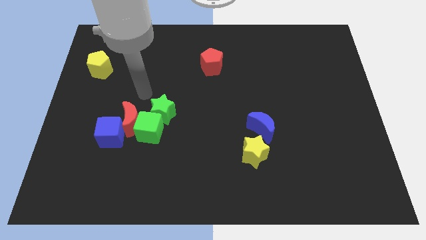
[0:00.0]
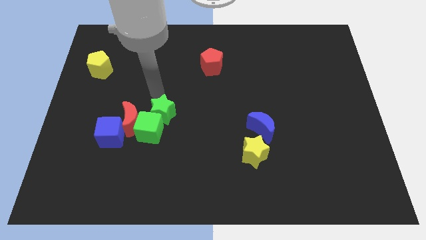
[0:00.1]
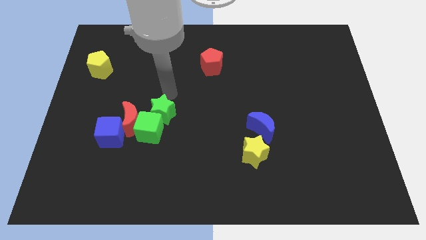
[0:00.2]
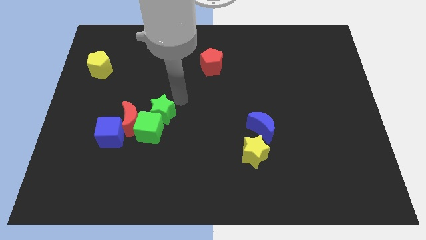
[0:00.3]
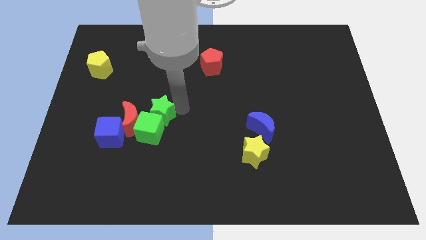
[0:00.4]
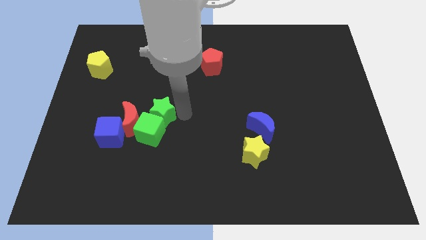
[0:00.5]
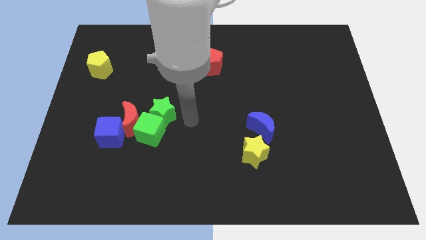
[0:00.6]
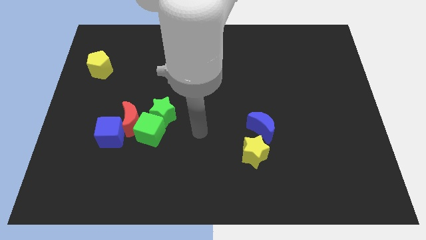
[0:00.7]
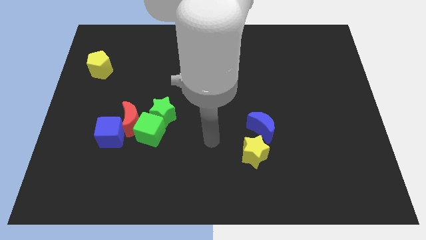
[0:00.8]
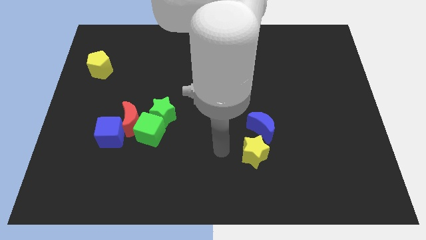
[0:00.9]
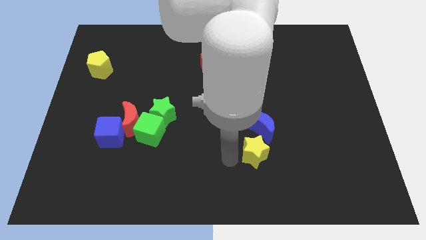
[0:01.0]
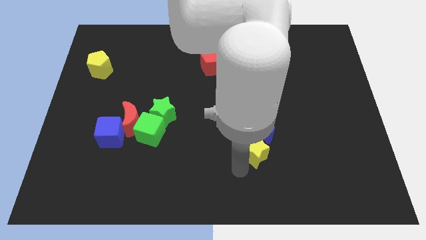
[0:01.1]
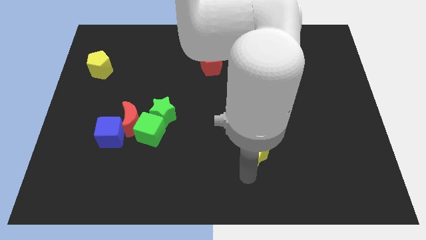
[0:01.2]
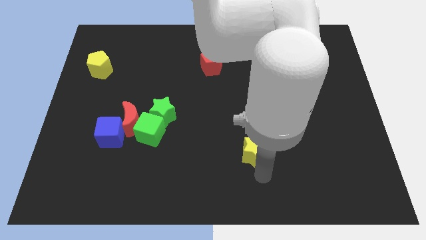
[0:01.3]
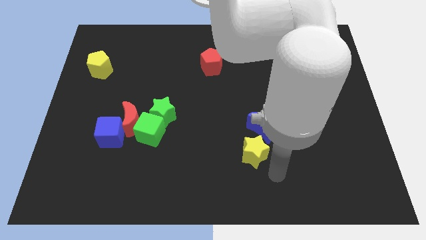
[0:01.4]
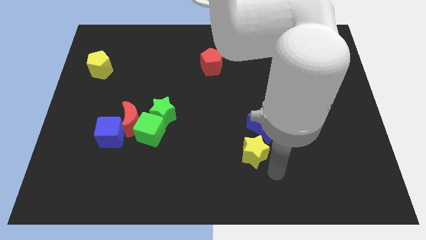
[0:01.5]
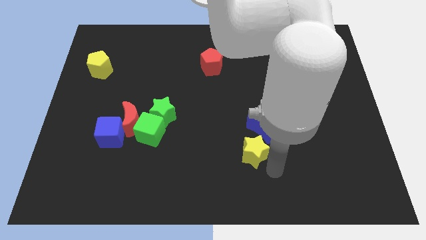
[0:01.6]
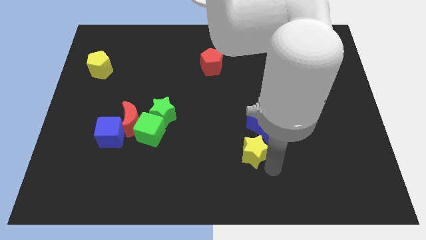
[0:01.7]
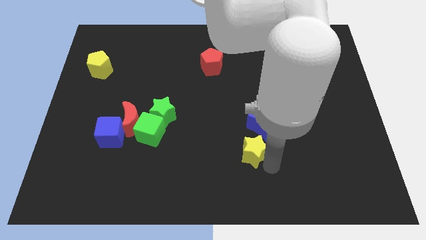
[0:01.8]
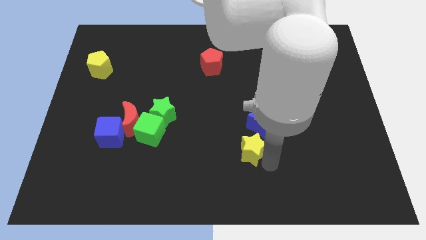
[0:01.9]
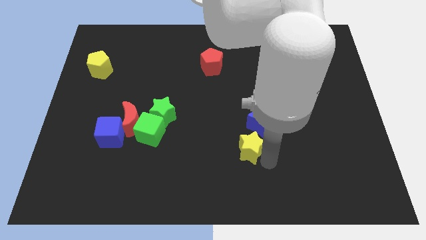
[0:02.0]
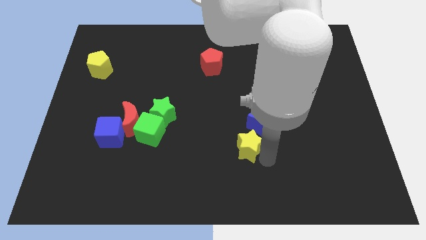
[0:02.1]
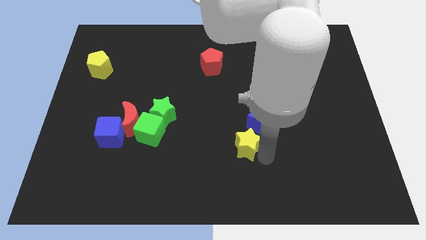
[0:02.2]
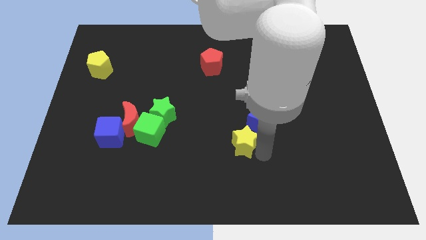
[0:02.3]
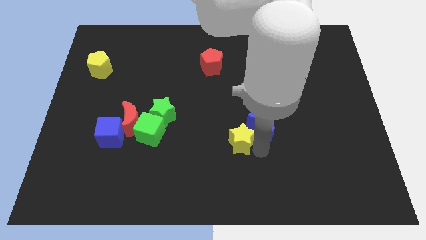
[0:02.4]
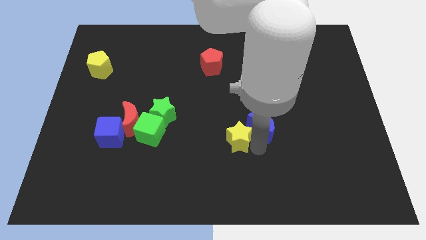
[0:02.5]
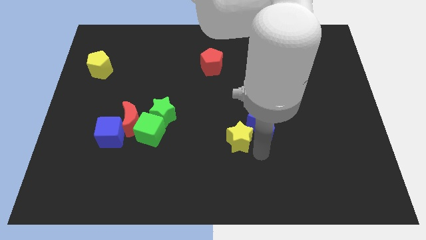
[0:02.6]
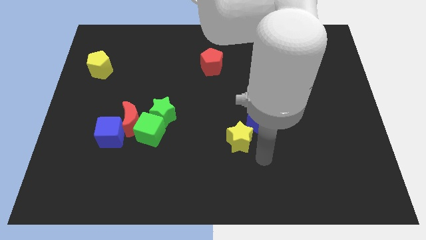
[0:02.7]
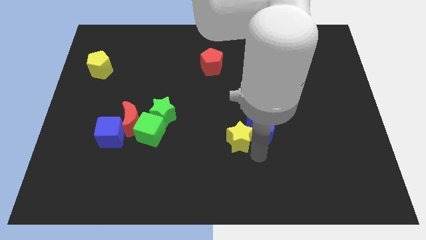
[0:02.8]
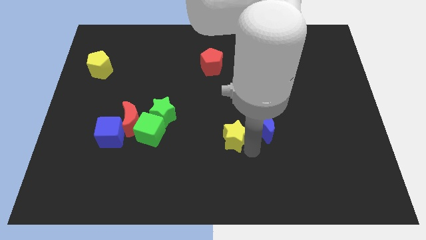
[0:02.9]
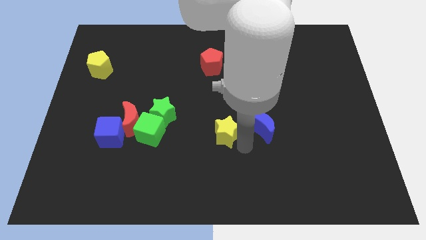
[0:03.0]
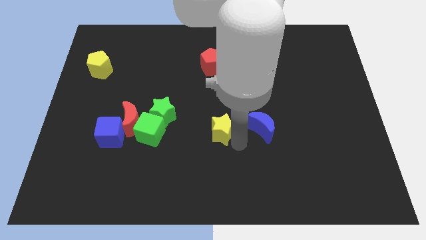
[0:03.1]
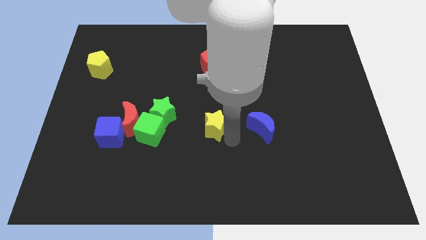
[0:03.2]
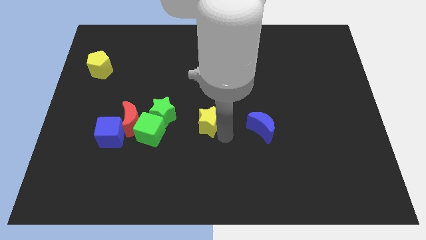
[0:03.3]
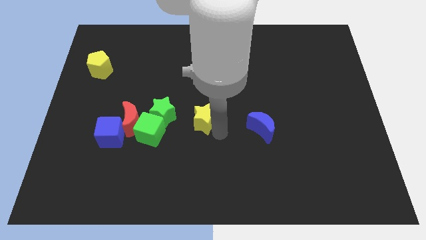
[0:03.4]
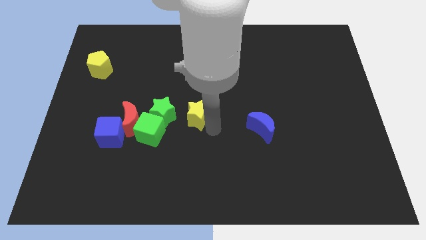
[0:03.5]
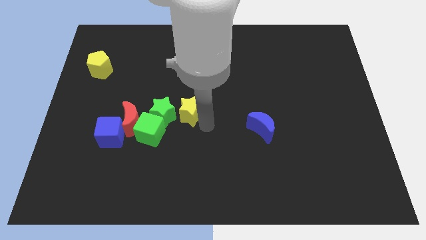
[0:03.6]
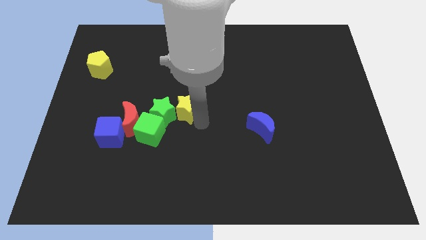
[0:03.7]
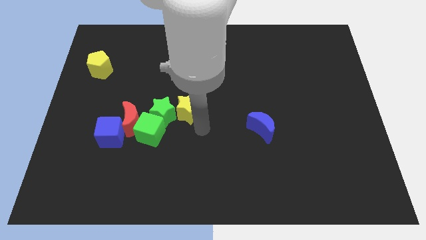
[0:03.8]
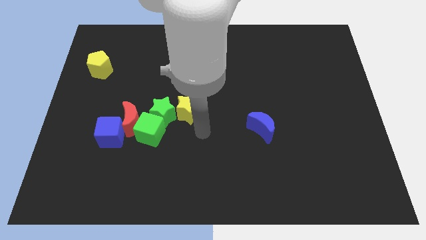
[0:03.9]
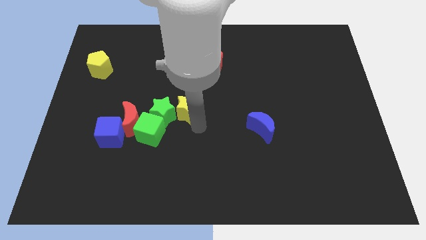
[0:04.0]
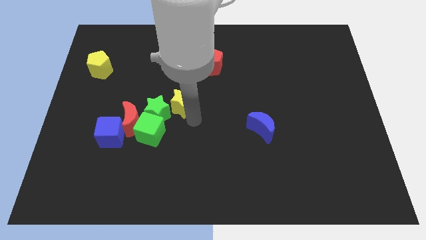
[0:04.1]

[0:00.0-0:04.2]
slide the yellow star diagonally up and left

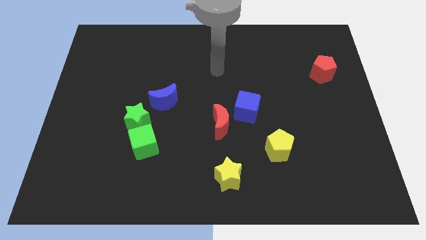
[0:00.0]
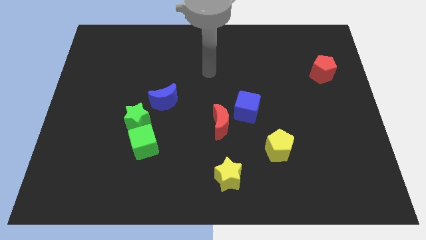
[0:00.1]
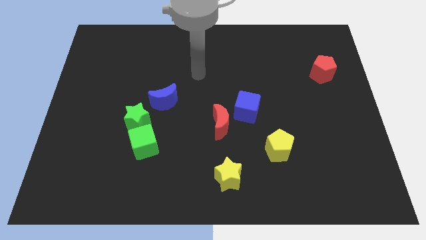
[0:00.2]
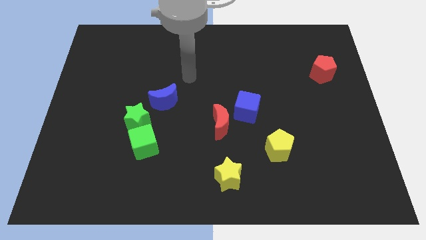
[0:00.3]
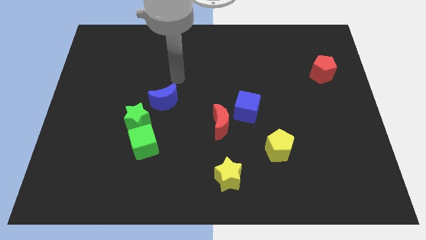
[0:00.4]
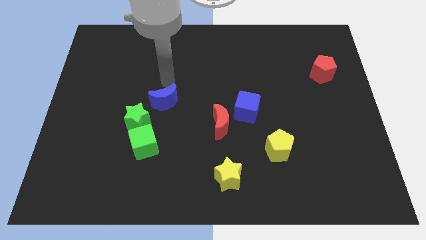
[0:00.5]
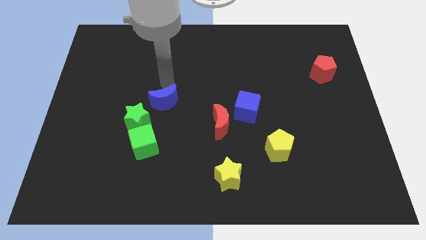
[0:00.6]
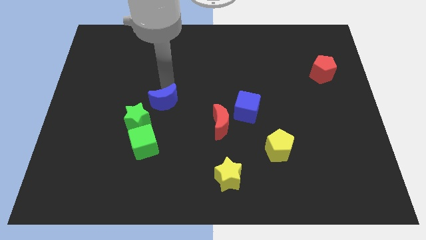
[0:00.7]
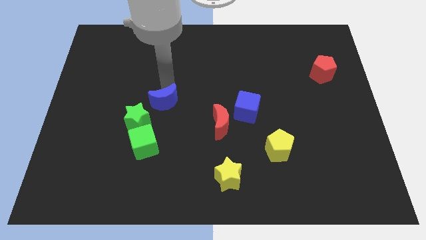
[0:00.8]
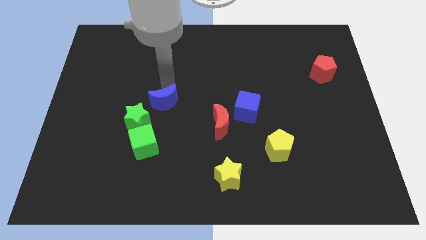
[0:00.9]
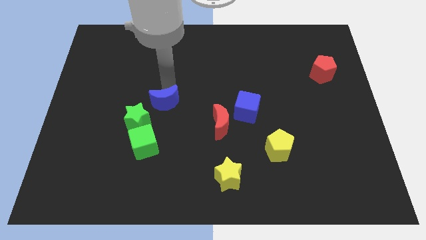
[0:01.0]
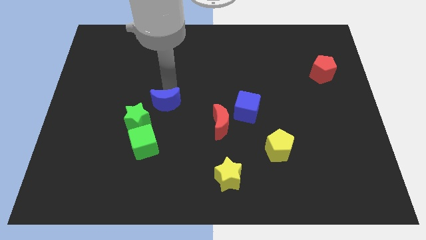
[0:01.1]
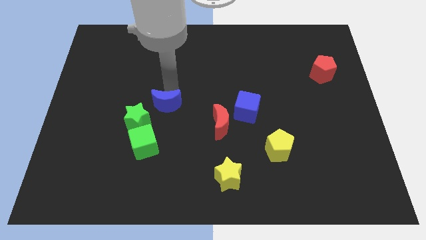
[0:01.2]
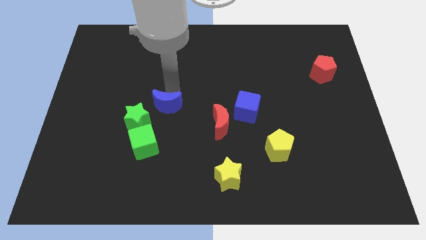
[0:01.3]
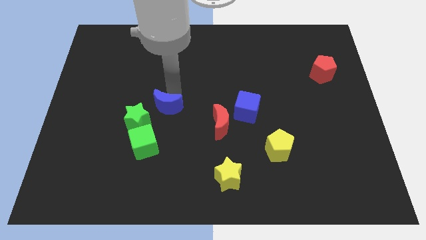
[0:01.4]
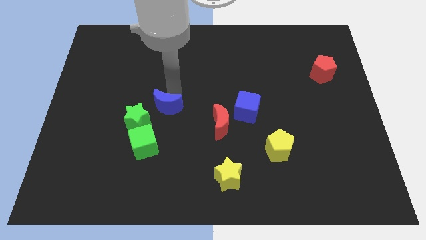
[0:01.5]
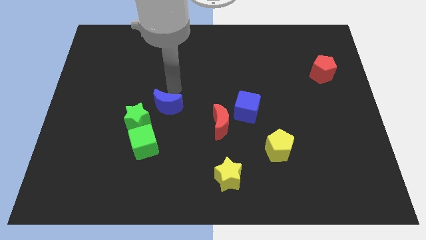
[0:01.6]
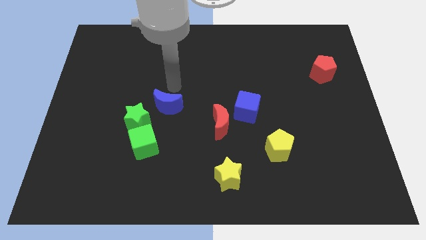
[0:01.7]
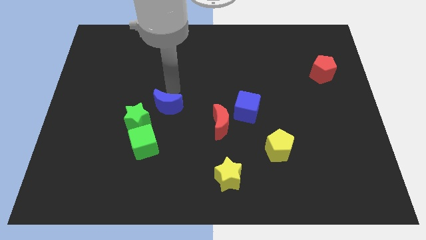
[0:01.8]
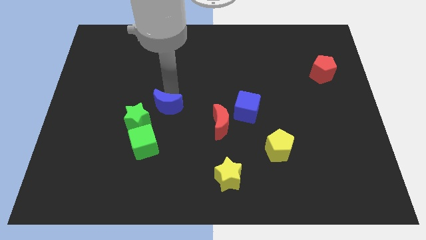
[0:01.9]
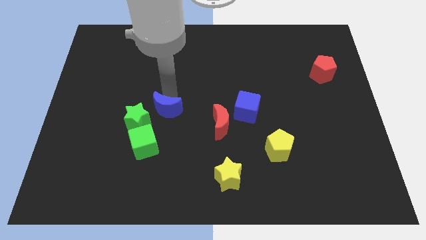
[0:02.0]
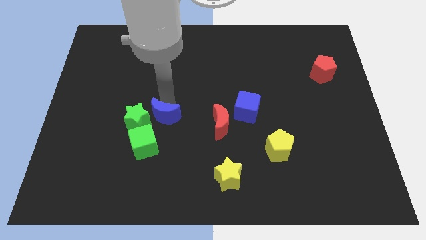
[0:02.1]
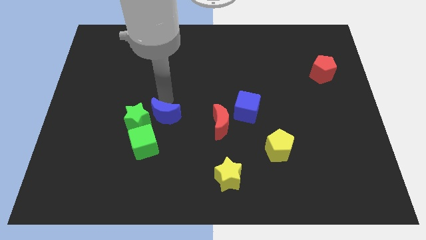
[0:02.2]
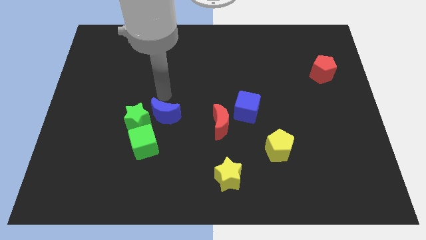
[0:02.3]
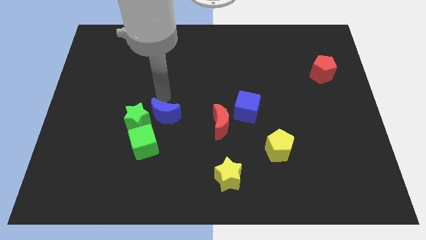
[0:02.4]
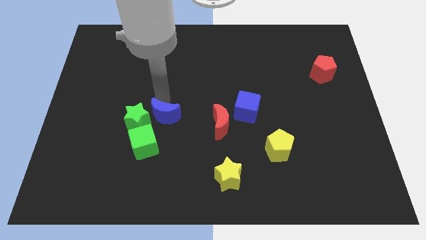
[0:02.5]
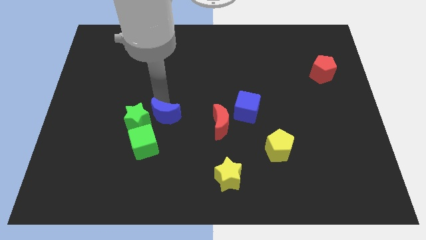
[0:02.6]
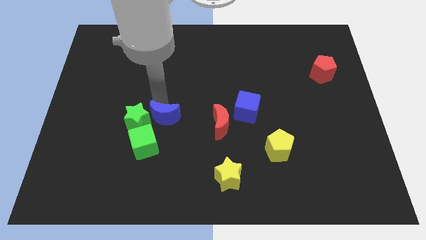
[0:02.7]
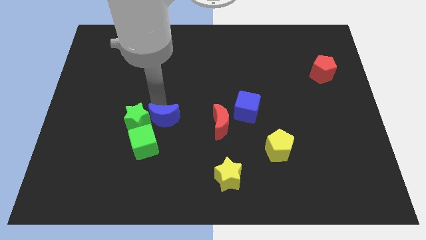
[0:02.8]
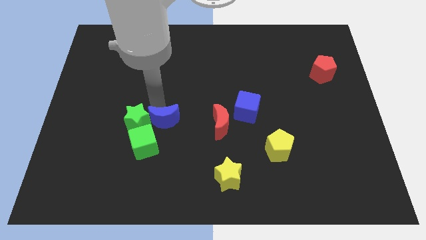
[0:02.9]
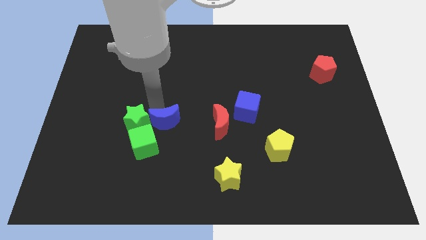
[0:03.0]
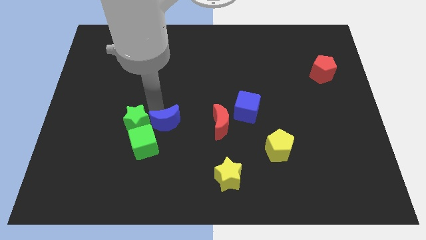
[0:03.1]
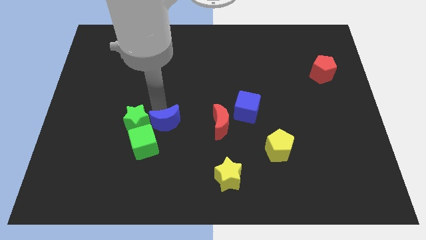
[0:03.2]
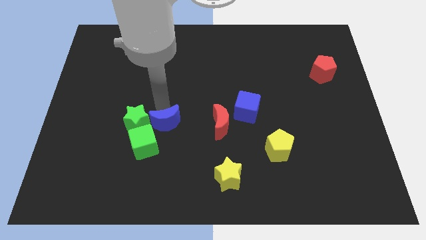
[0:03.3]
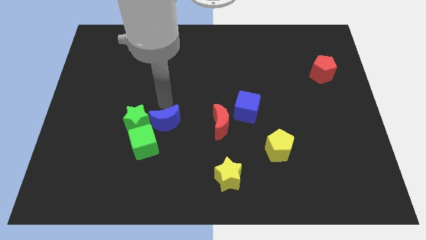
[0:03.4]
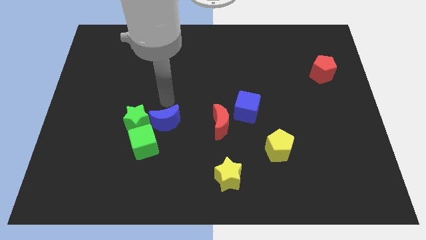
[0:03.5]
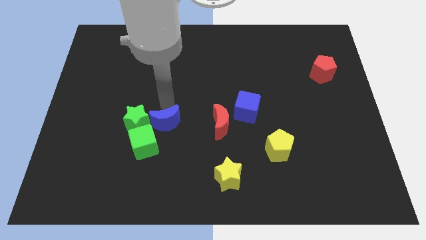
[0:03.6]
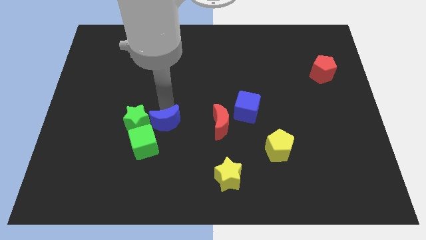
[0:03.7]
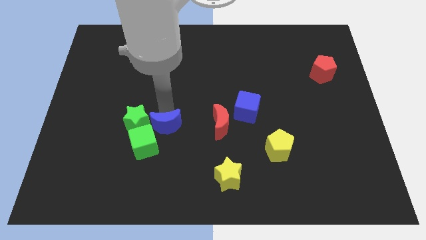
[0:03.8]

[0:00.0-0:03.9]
slide the blue moon somewhat downwards
